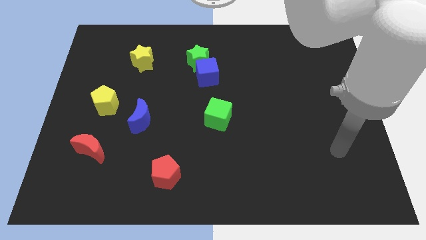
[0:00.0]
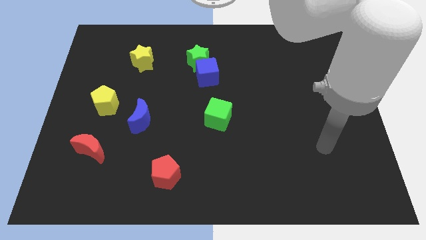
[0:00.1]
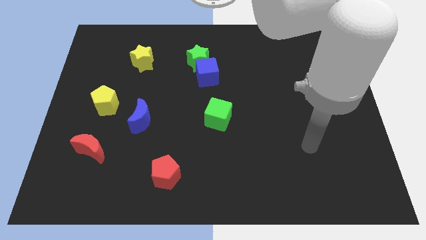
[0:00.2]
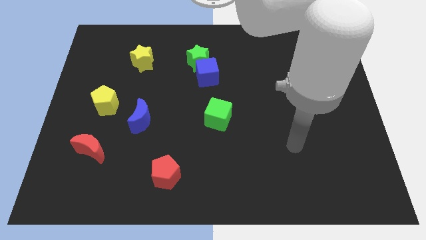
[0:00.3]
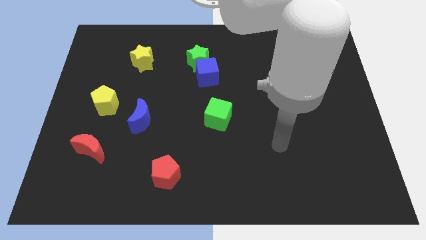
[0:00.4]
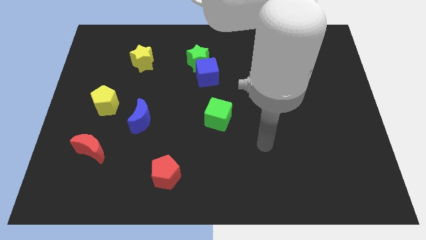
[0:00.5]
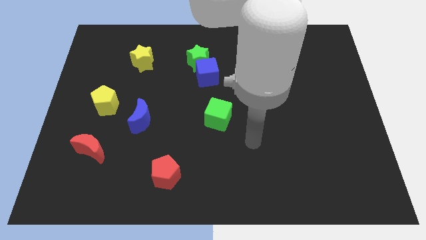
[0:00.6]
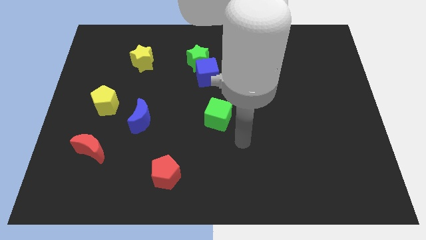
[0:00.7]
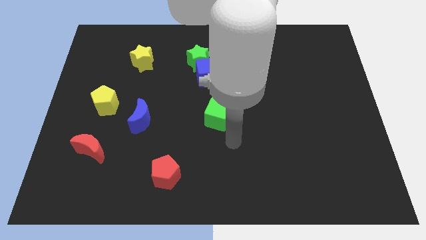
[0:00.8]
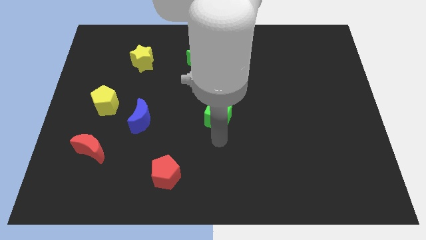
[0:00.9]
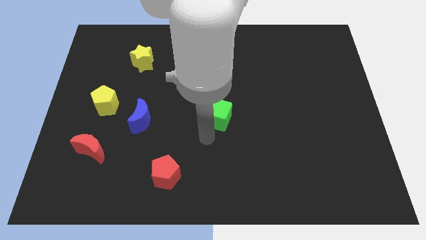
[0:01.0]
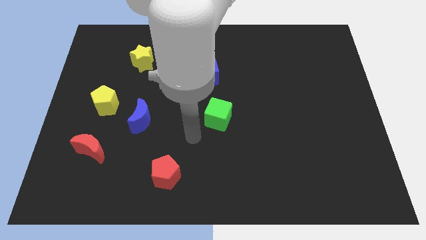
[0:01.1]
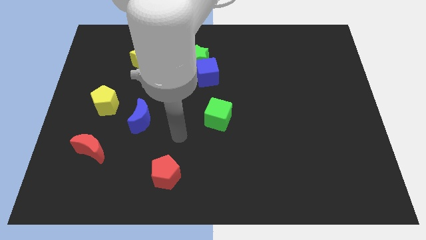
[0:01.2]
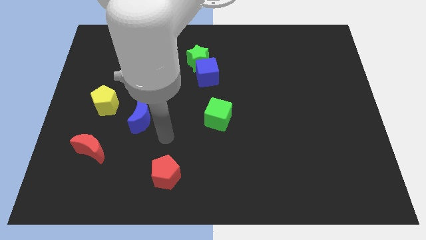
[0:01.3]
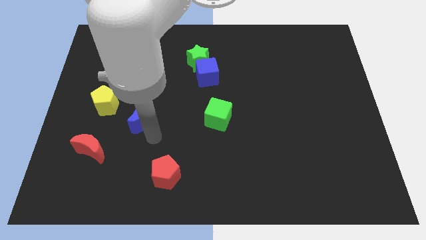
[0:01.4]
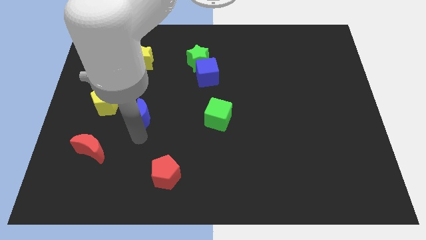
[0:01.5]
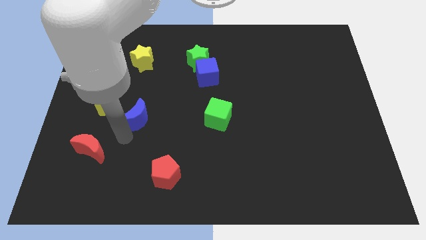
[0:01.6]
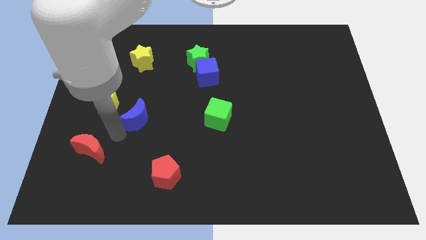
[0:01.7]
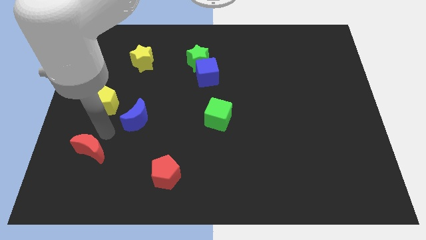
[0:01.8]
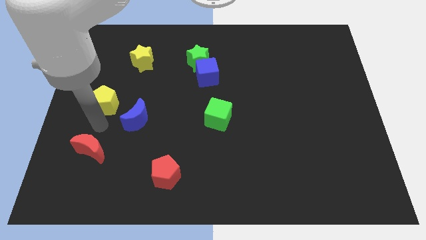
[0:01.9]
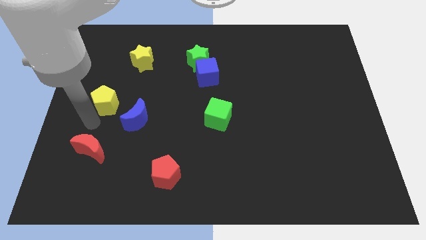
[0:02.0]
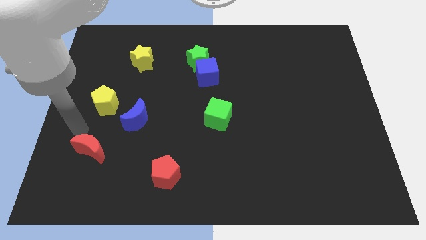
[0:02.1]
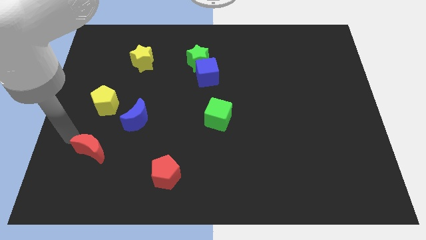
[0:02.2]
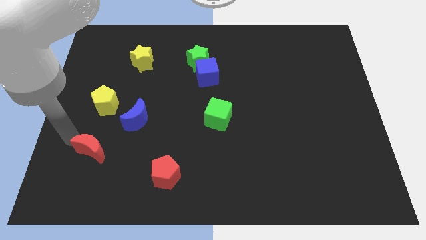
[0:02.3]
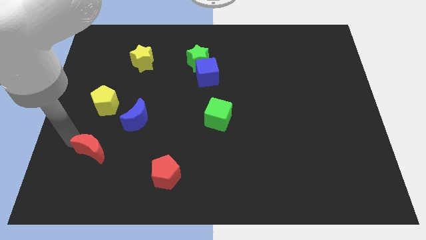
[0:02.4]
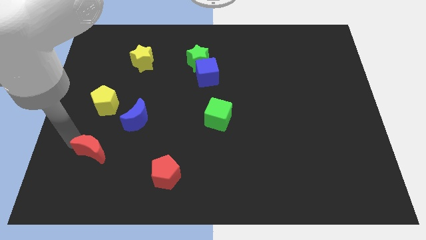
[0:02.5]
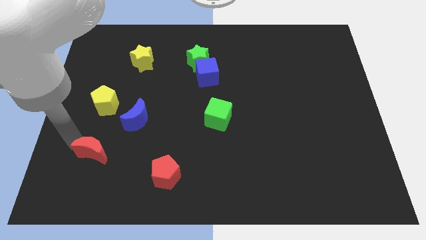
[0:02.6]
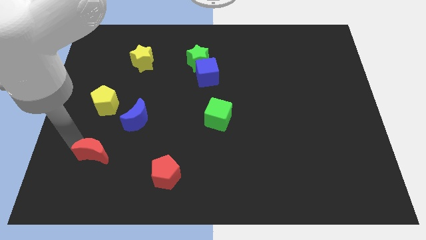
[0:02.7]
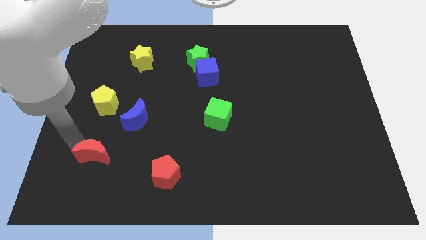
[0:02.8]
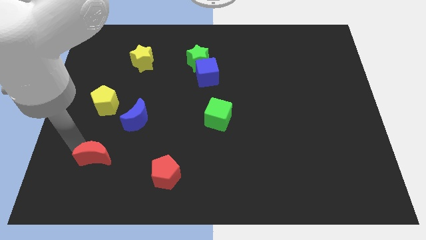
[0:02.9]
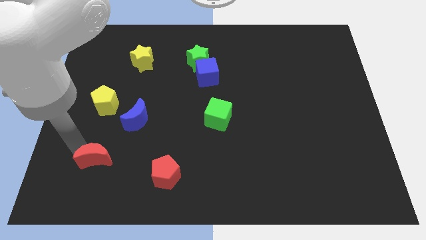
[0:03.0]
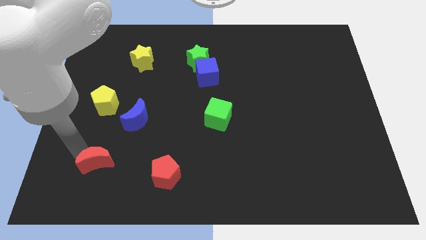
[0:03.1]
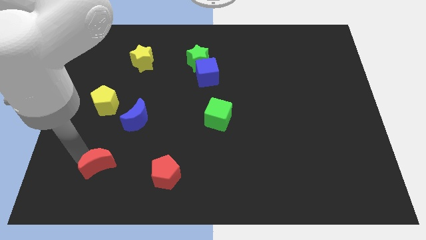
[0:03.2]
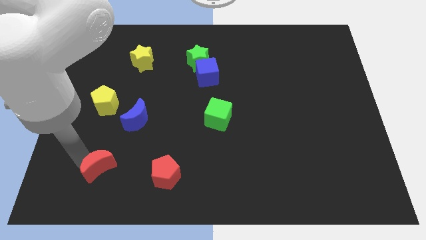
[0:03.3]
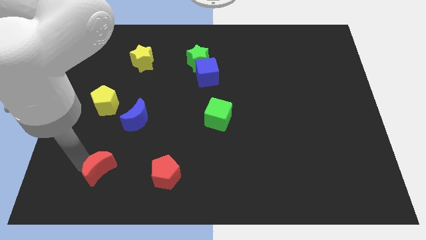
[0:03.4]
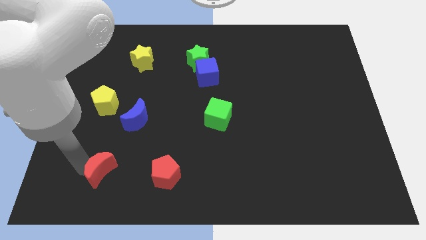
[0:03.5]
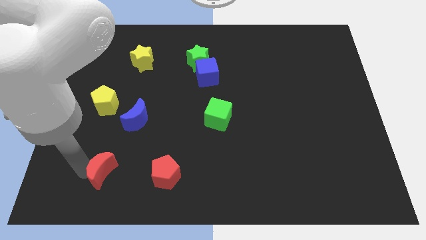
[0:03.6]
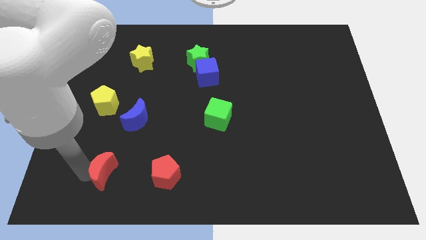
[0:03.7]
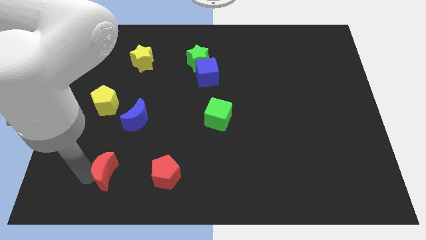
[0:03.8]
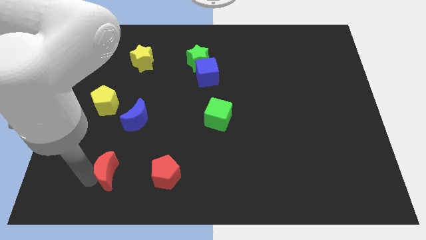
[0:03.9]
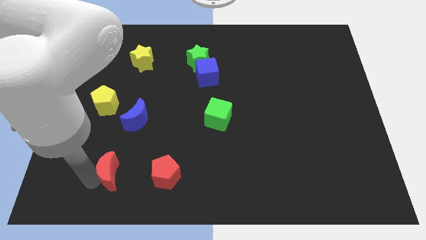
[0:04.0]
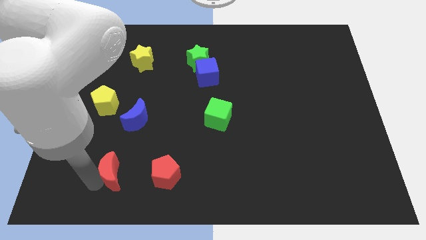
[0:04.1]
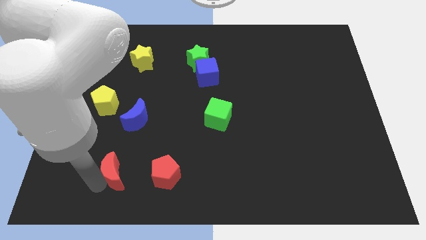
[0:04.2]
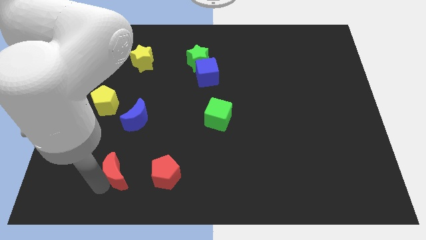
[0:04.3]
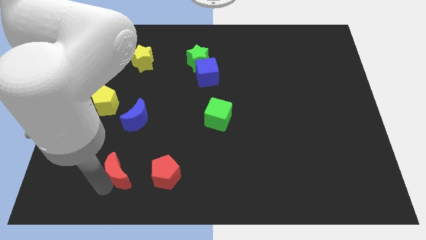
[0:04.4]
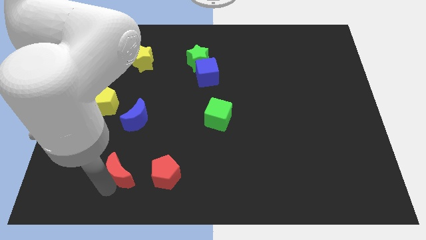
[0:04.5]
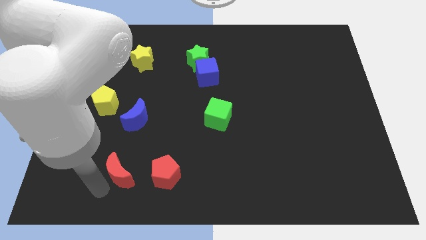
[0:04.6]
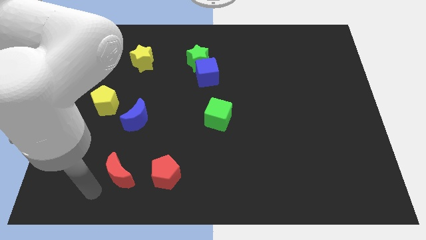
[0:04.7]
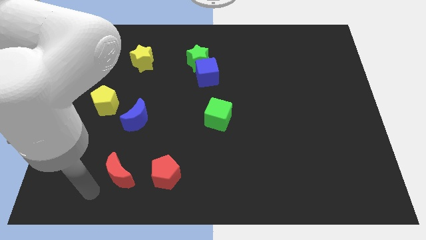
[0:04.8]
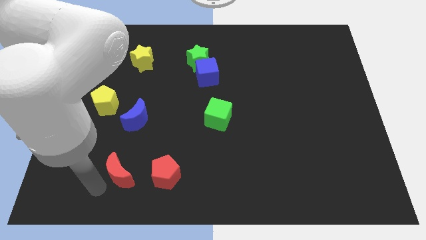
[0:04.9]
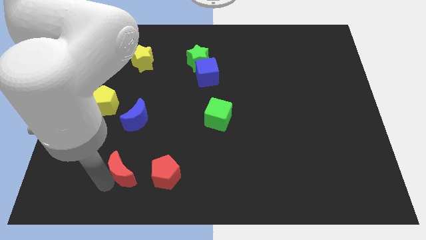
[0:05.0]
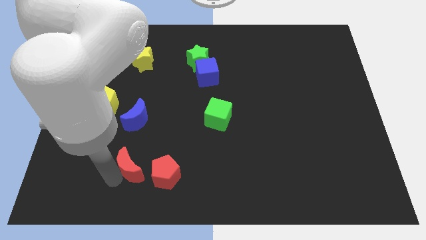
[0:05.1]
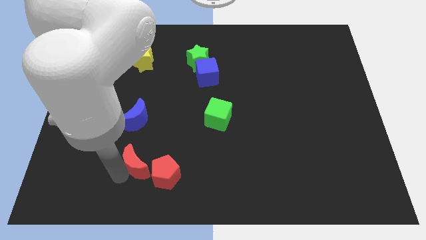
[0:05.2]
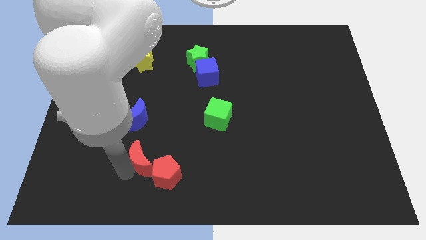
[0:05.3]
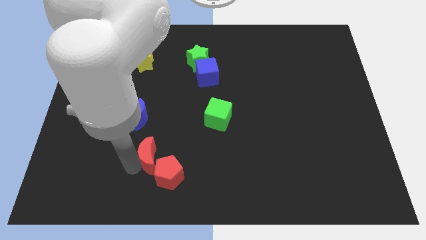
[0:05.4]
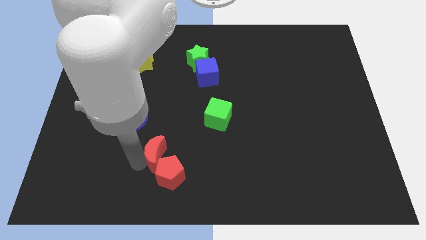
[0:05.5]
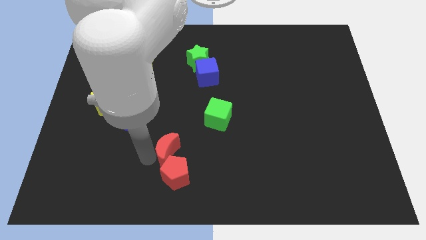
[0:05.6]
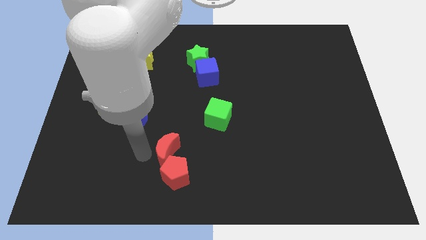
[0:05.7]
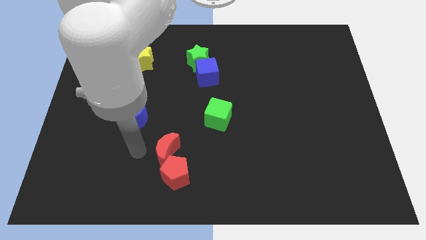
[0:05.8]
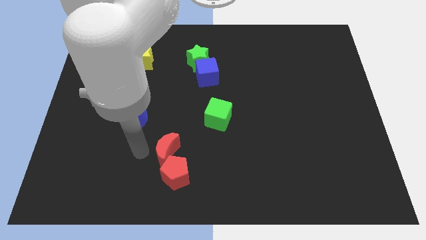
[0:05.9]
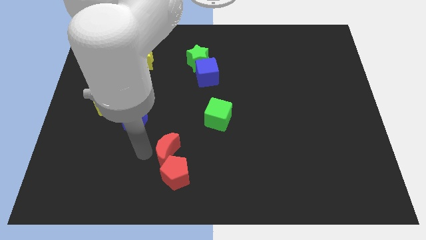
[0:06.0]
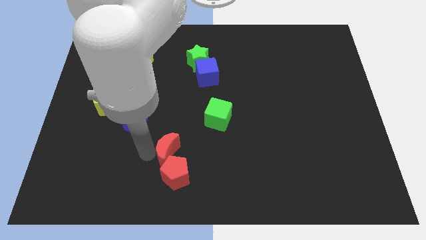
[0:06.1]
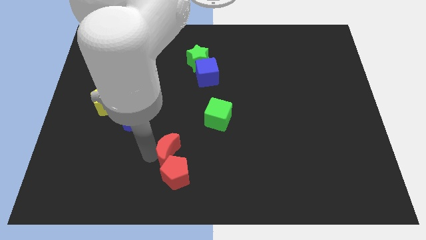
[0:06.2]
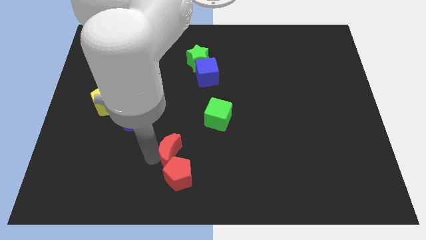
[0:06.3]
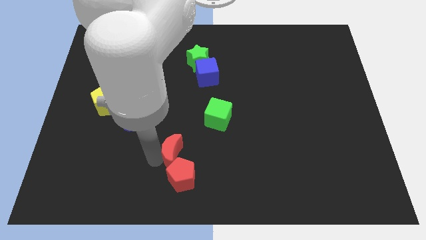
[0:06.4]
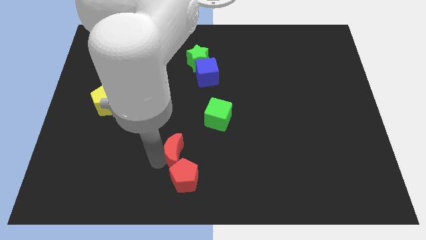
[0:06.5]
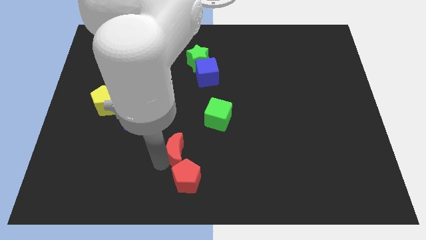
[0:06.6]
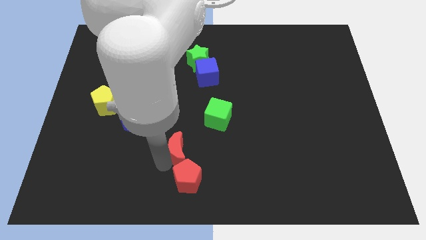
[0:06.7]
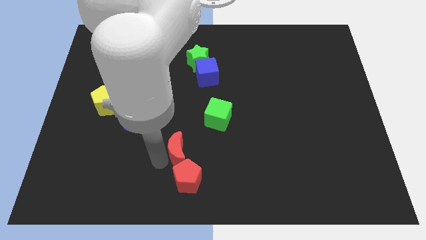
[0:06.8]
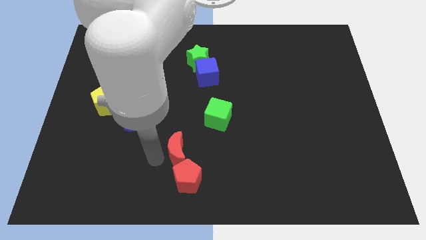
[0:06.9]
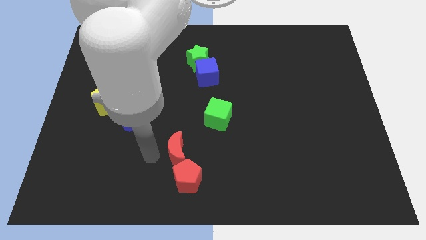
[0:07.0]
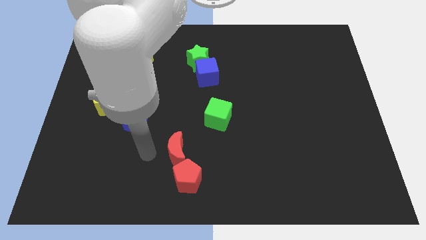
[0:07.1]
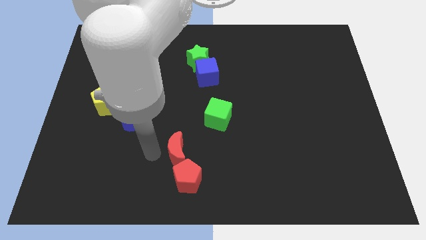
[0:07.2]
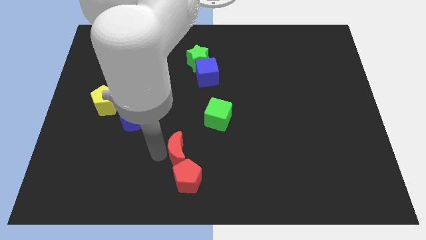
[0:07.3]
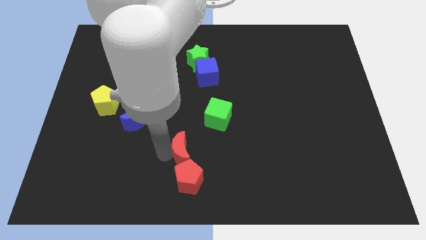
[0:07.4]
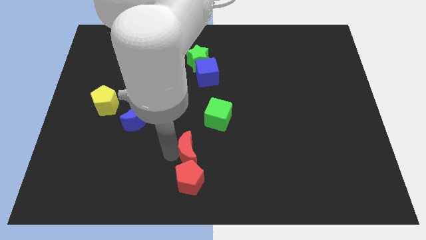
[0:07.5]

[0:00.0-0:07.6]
slide the red moon right

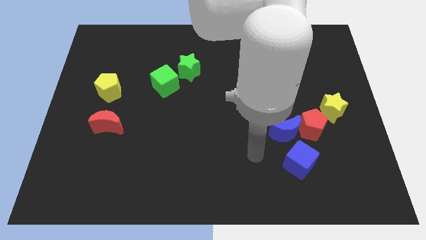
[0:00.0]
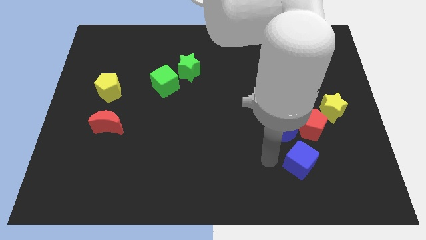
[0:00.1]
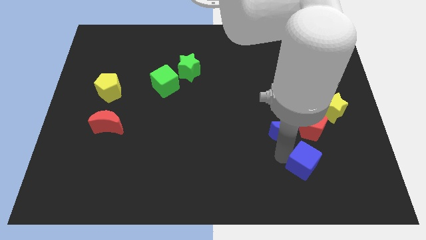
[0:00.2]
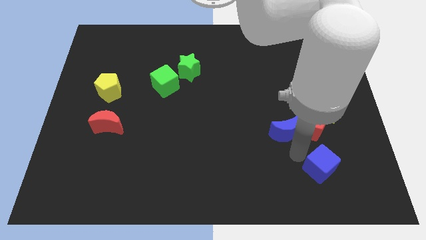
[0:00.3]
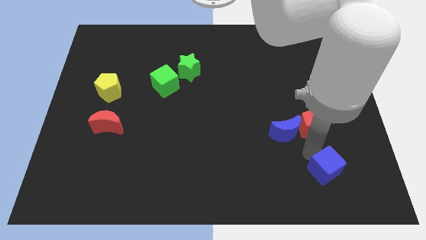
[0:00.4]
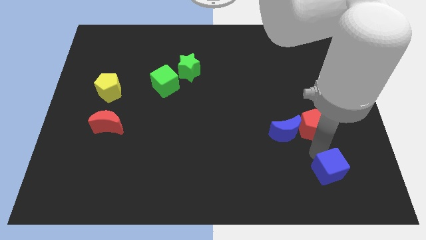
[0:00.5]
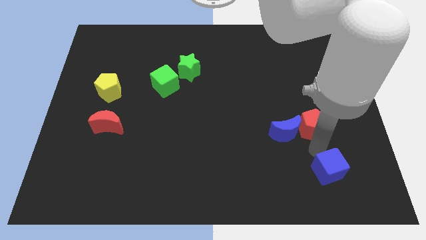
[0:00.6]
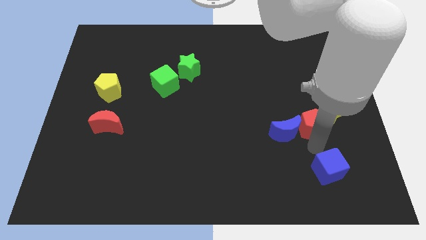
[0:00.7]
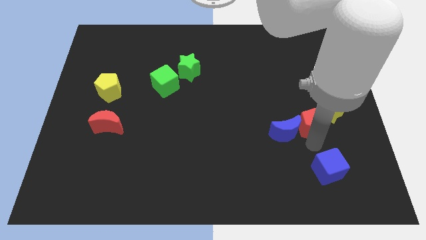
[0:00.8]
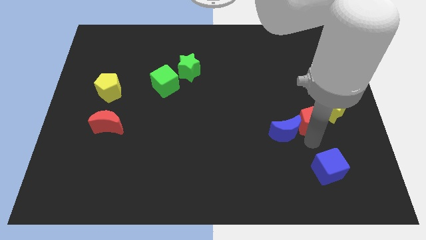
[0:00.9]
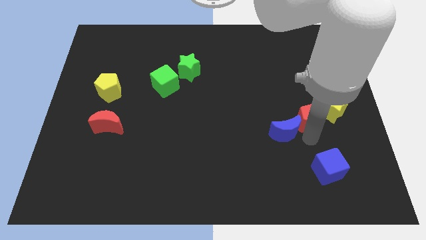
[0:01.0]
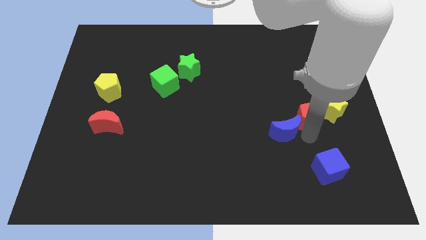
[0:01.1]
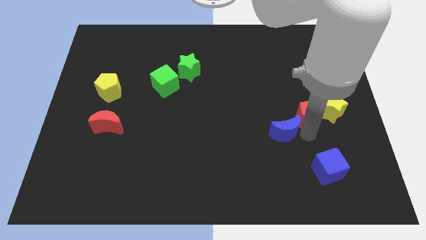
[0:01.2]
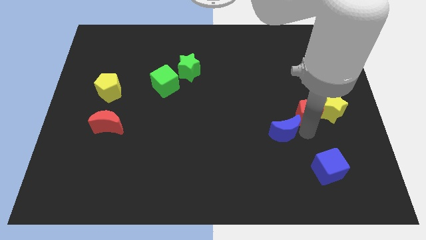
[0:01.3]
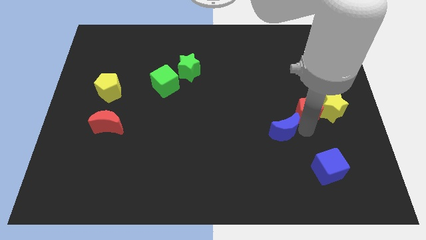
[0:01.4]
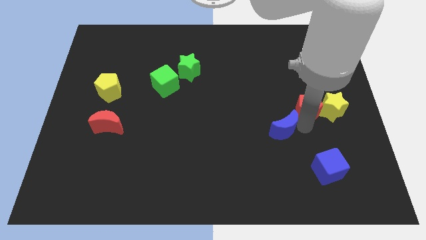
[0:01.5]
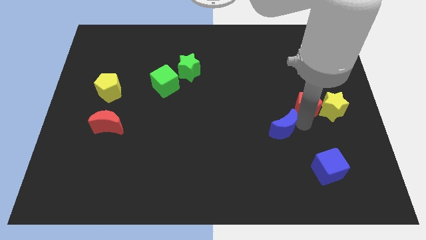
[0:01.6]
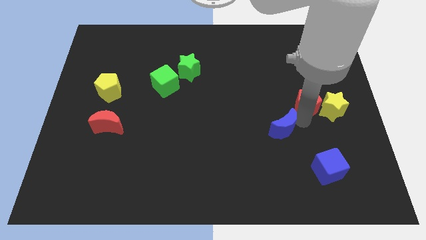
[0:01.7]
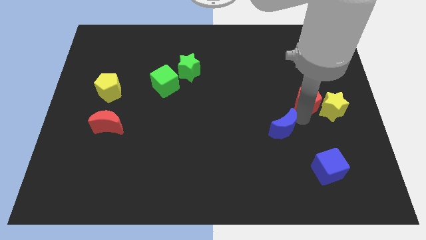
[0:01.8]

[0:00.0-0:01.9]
move the red pentagon a little bit up
